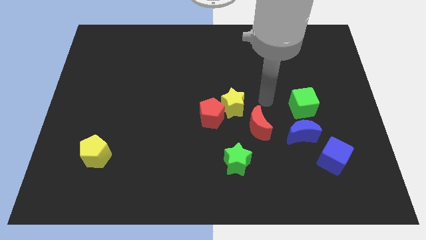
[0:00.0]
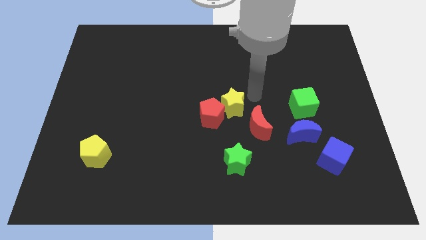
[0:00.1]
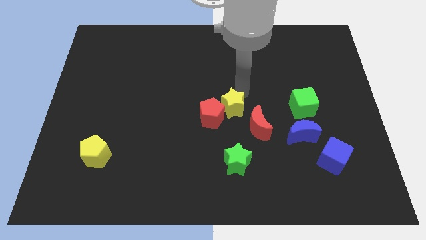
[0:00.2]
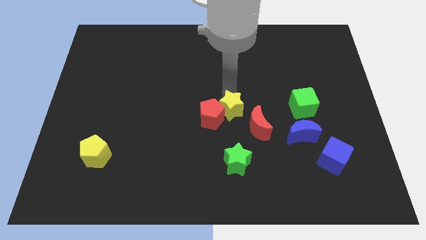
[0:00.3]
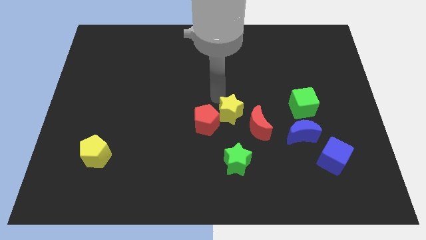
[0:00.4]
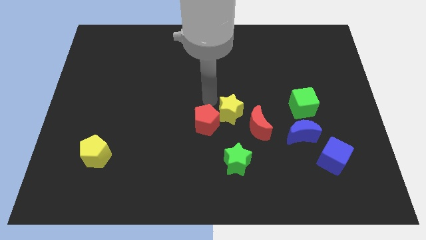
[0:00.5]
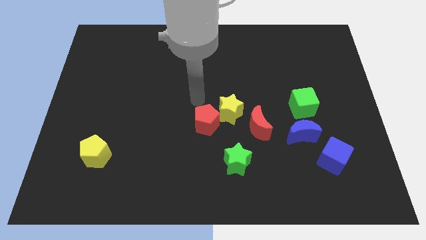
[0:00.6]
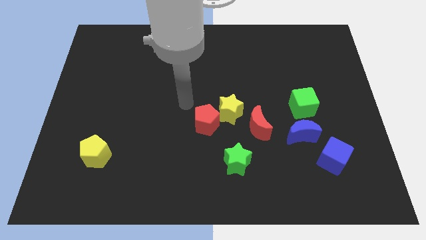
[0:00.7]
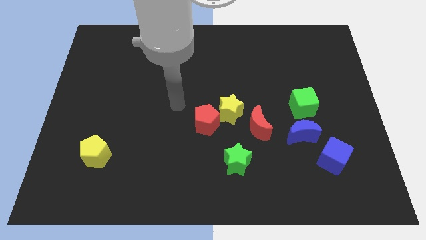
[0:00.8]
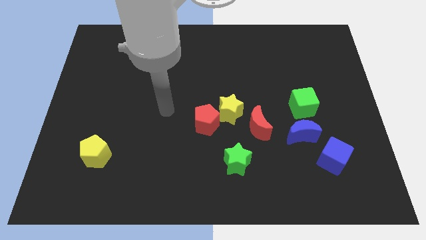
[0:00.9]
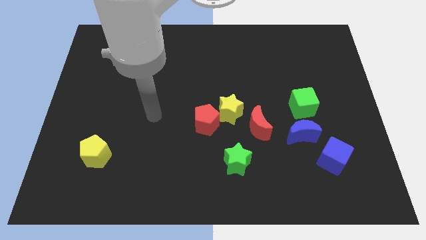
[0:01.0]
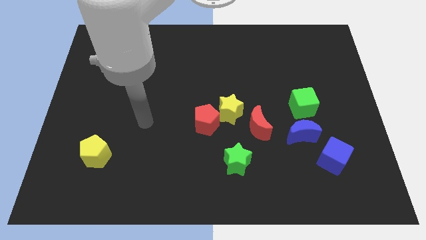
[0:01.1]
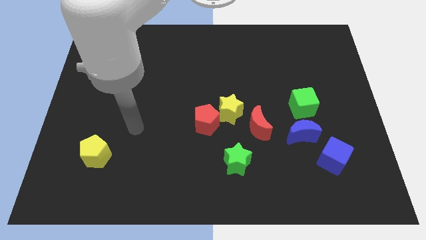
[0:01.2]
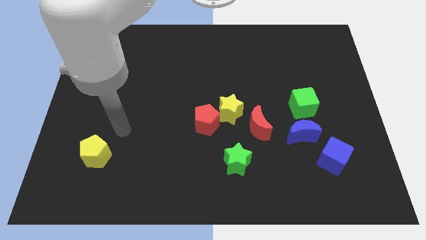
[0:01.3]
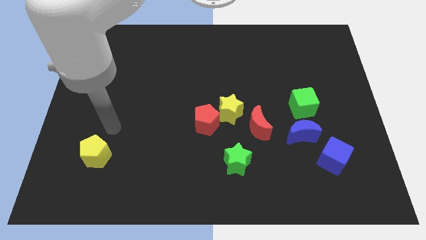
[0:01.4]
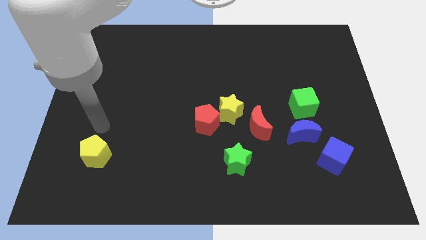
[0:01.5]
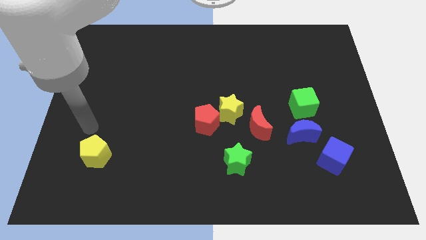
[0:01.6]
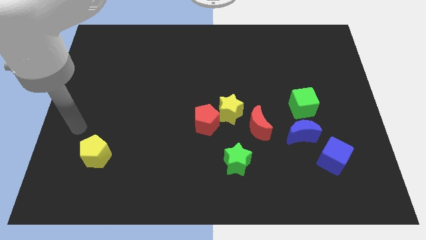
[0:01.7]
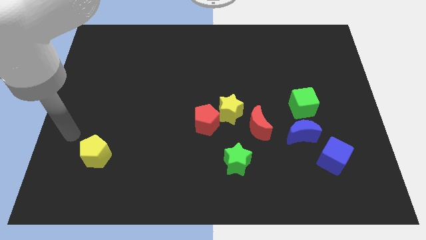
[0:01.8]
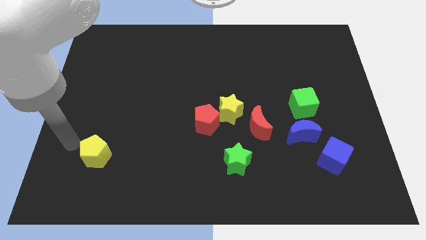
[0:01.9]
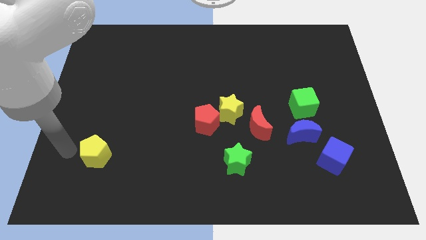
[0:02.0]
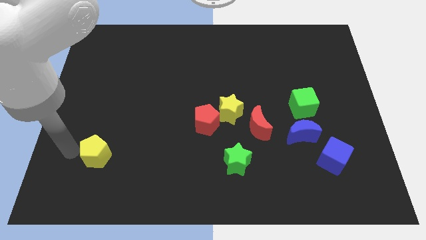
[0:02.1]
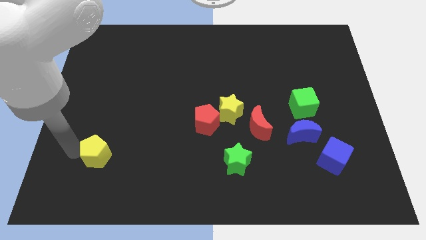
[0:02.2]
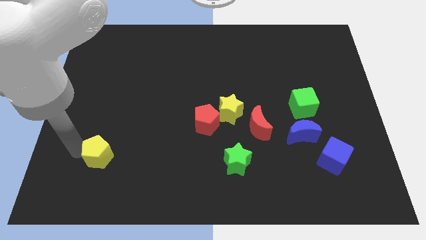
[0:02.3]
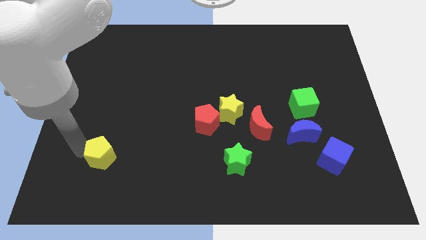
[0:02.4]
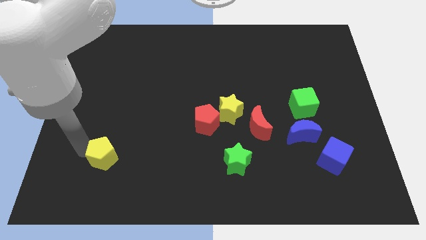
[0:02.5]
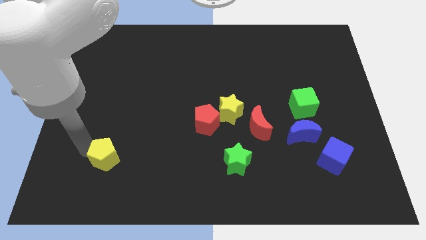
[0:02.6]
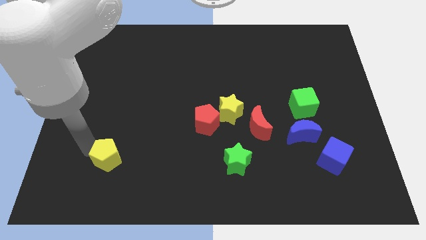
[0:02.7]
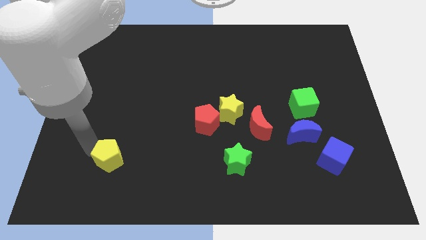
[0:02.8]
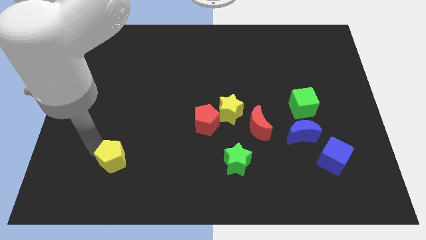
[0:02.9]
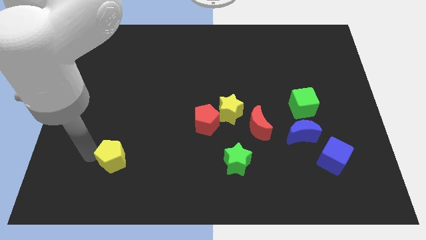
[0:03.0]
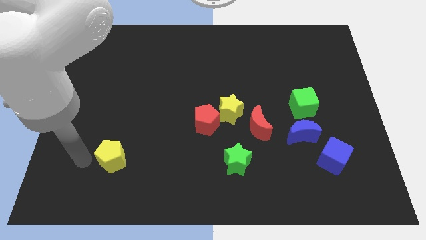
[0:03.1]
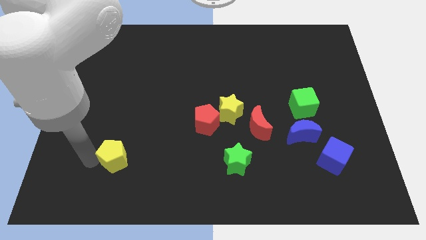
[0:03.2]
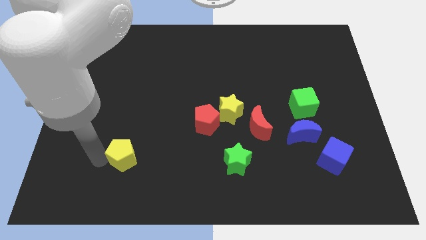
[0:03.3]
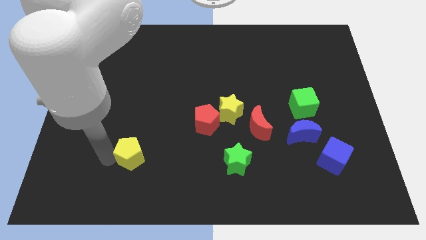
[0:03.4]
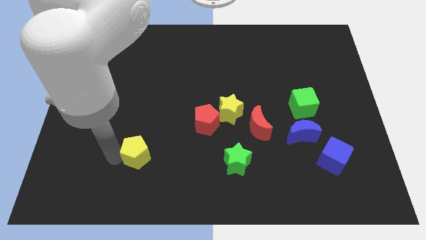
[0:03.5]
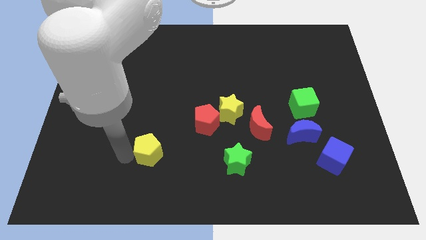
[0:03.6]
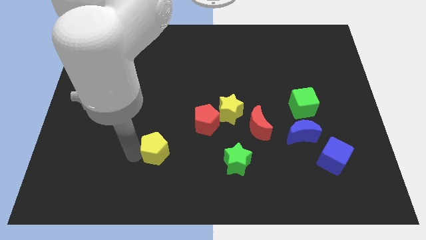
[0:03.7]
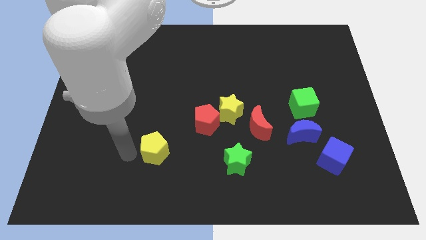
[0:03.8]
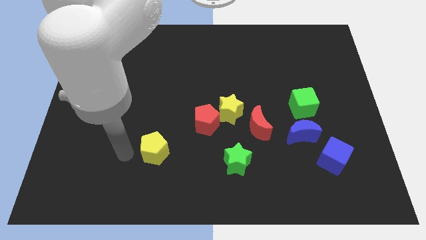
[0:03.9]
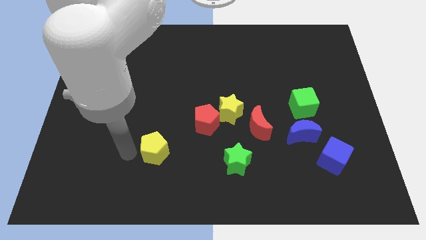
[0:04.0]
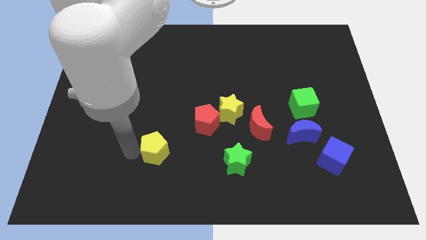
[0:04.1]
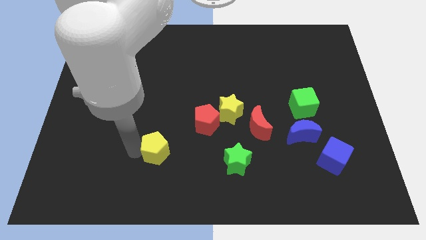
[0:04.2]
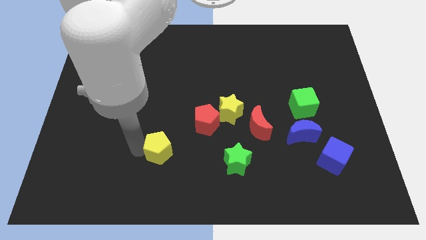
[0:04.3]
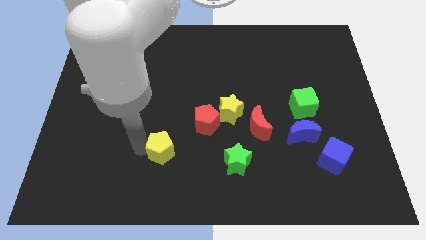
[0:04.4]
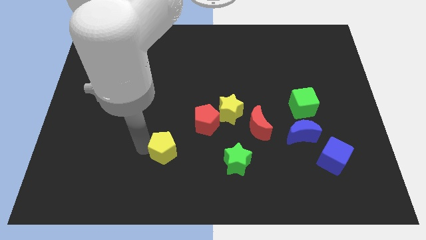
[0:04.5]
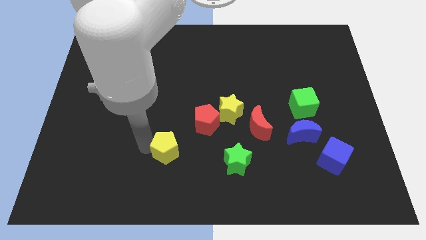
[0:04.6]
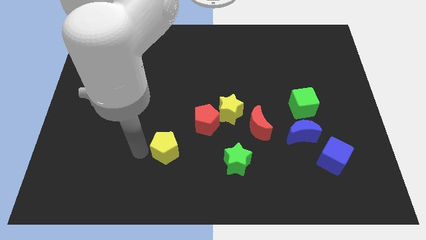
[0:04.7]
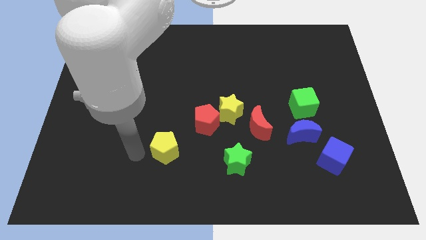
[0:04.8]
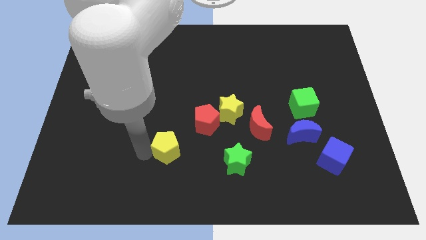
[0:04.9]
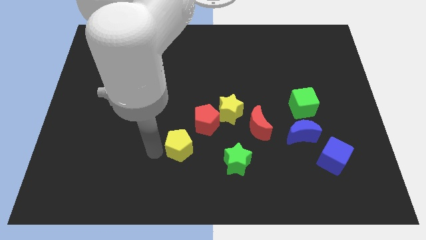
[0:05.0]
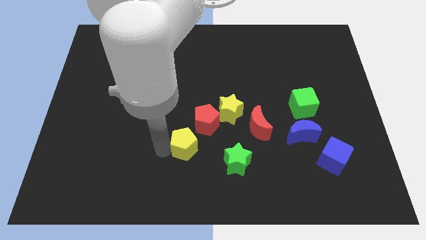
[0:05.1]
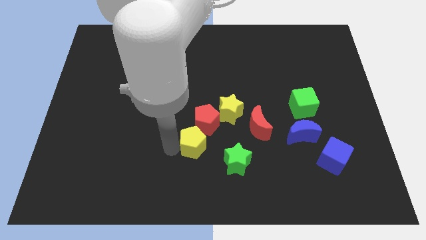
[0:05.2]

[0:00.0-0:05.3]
push the yellow pentagon to the top left side of the green star

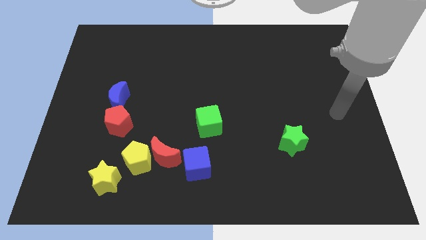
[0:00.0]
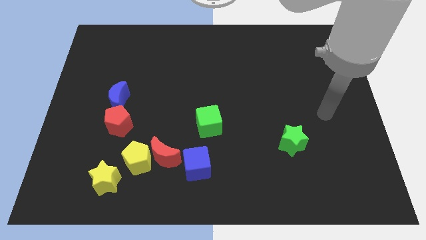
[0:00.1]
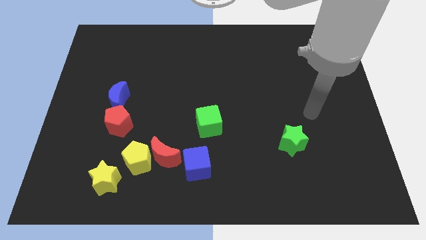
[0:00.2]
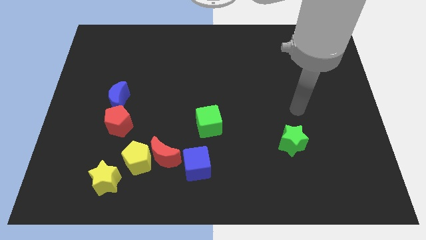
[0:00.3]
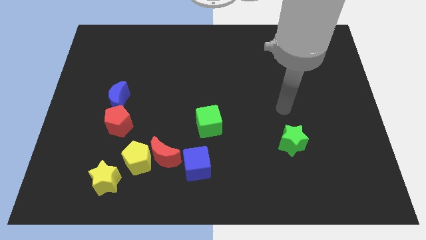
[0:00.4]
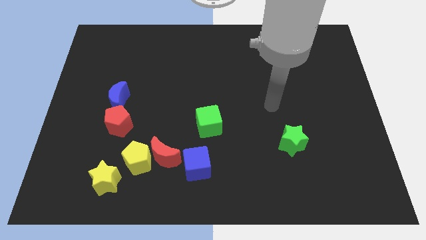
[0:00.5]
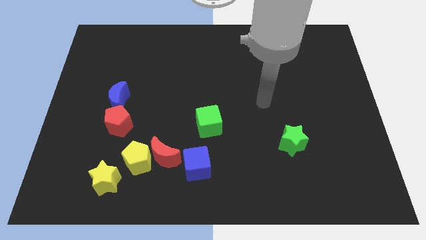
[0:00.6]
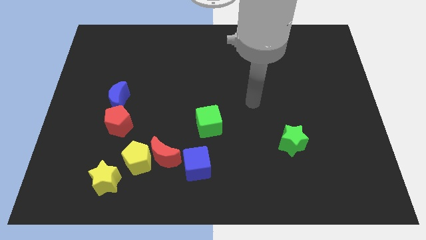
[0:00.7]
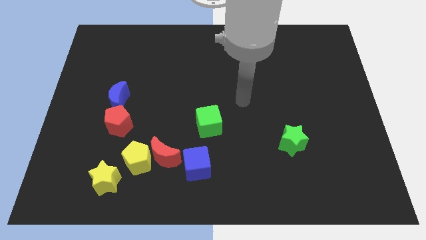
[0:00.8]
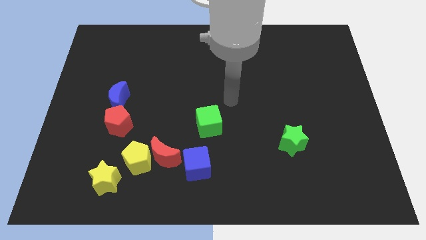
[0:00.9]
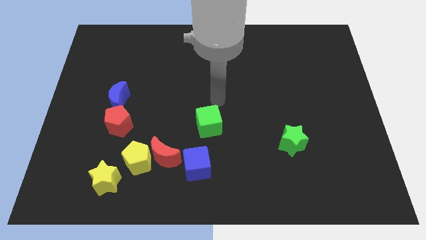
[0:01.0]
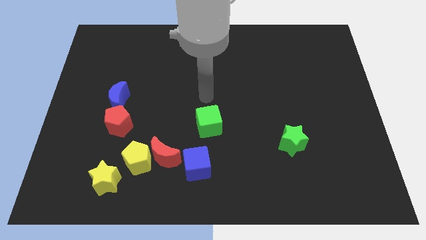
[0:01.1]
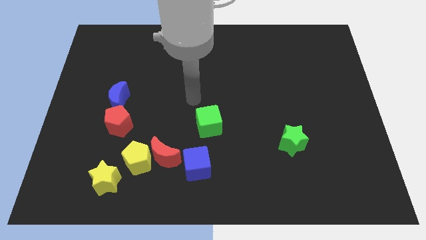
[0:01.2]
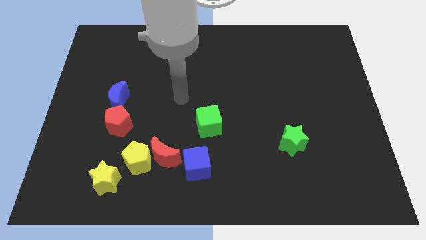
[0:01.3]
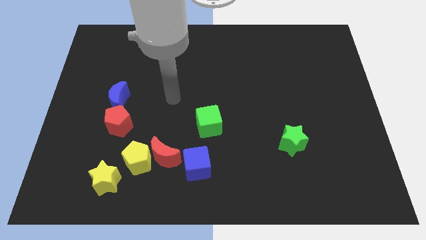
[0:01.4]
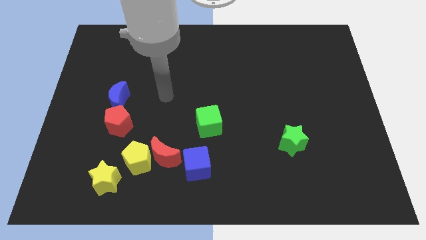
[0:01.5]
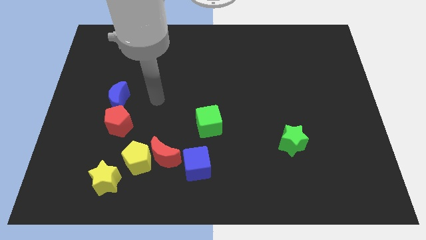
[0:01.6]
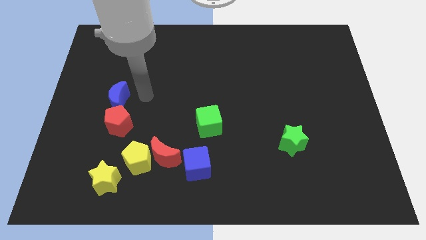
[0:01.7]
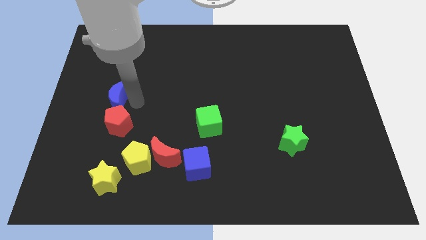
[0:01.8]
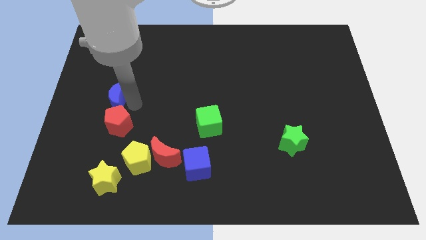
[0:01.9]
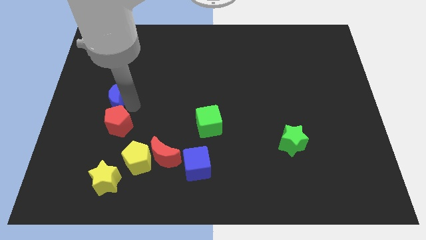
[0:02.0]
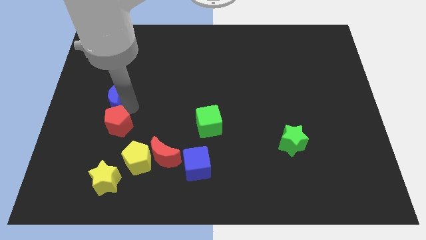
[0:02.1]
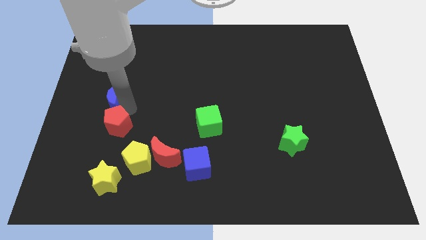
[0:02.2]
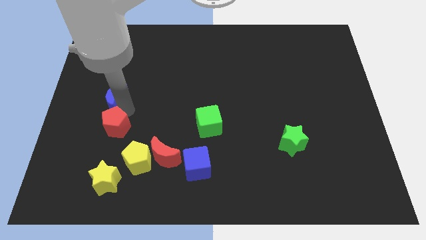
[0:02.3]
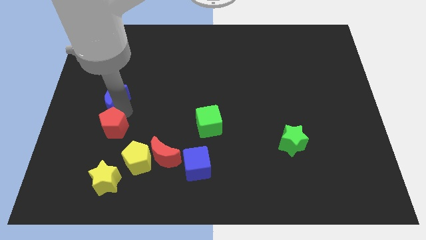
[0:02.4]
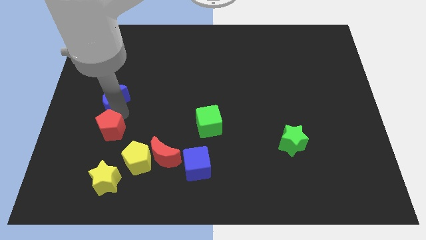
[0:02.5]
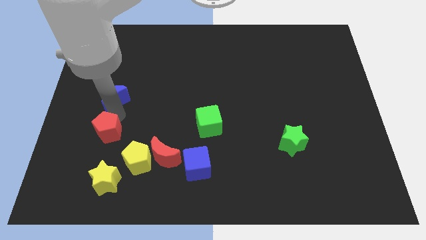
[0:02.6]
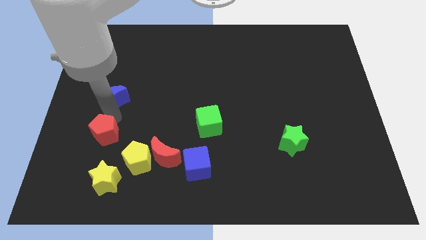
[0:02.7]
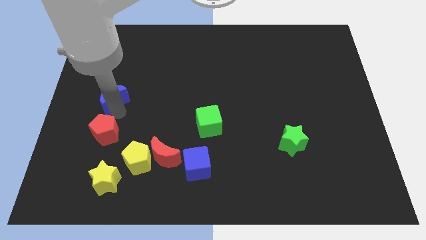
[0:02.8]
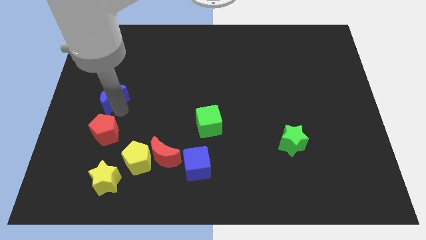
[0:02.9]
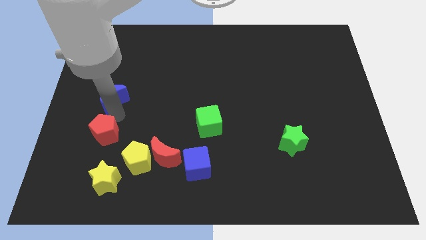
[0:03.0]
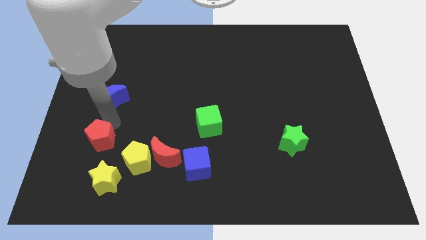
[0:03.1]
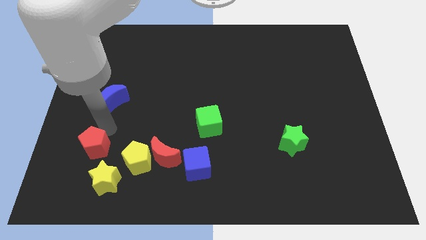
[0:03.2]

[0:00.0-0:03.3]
put the red pentagon to the left of the yellow pentagon
